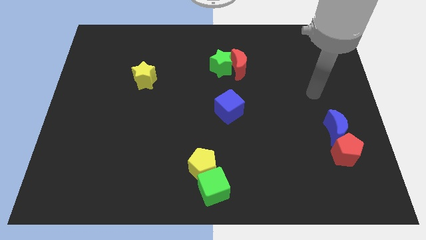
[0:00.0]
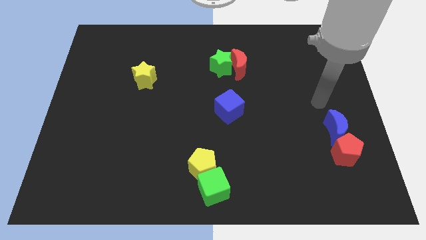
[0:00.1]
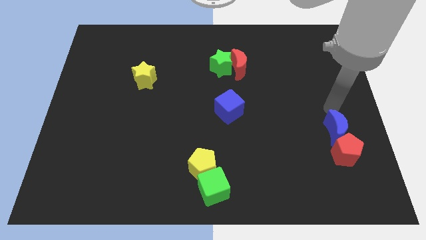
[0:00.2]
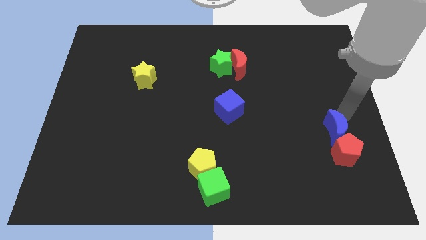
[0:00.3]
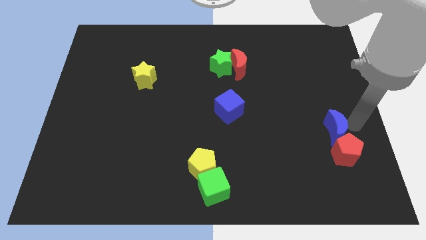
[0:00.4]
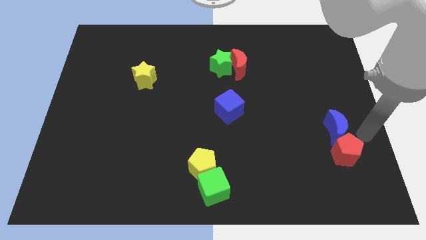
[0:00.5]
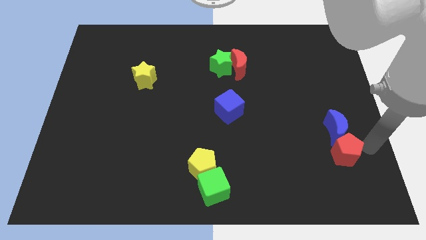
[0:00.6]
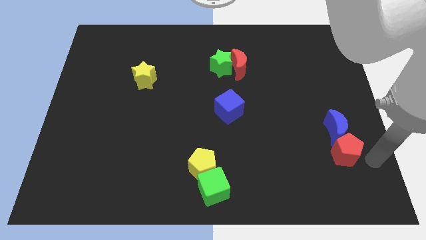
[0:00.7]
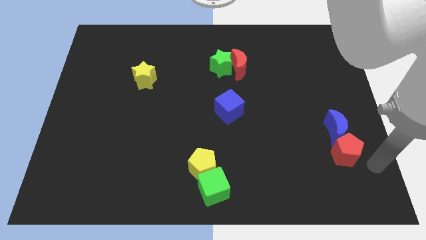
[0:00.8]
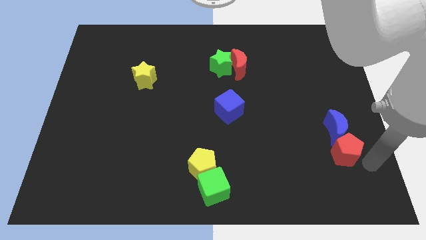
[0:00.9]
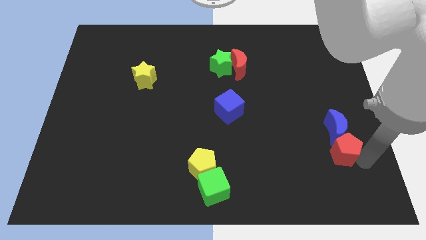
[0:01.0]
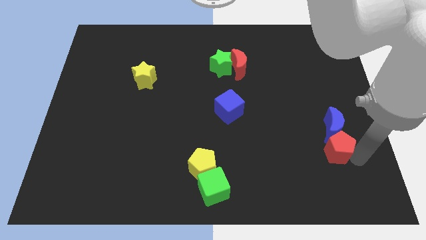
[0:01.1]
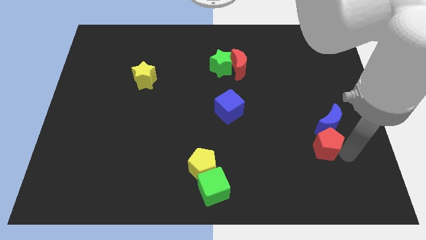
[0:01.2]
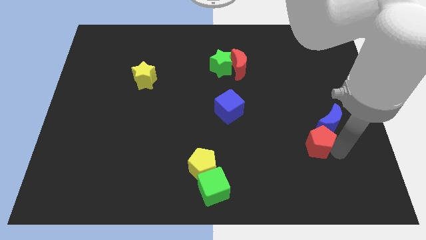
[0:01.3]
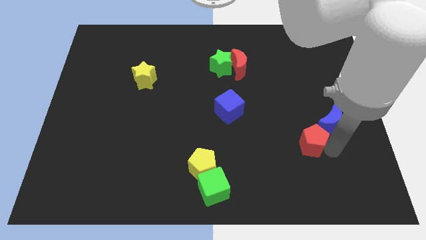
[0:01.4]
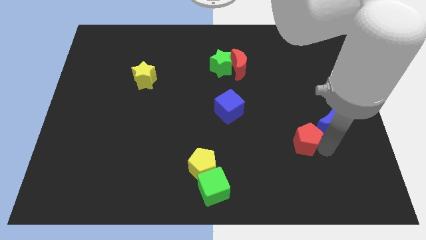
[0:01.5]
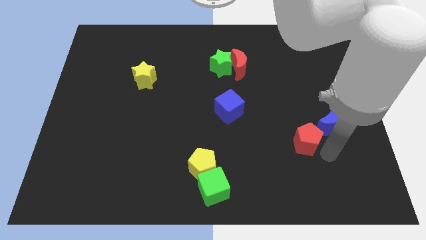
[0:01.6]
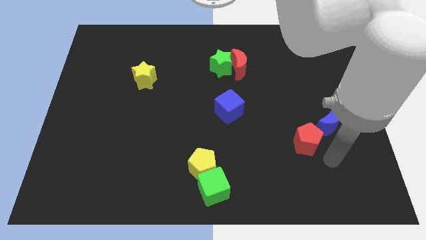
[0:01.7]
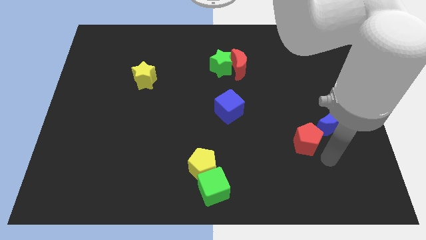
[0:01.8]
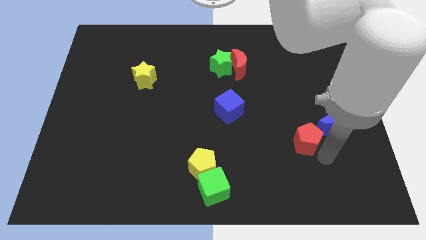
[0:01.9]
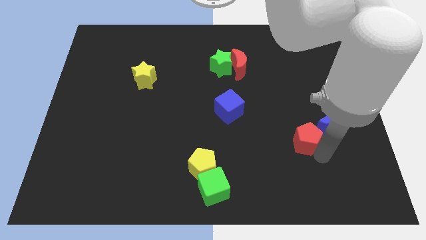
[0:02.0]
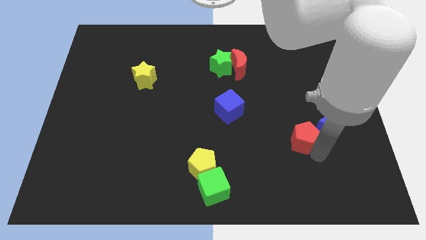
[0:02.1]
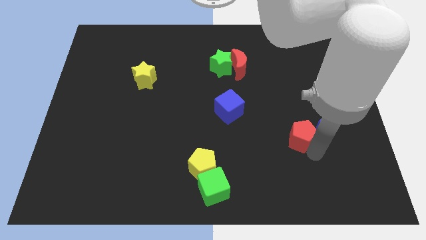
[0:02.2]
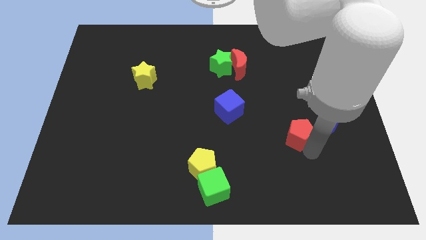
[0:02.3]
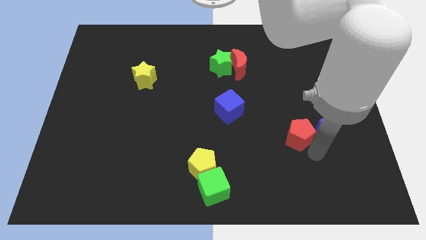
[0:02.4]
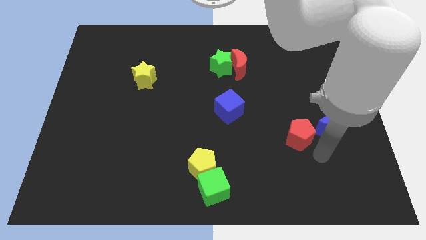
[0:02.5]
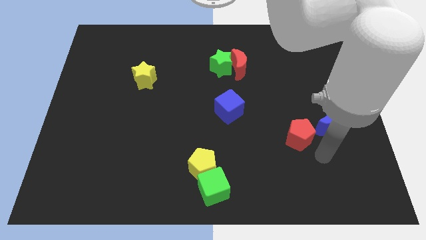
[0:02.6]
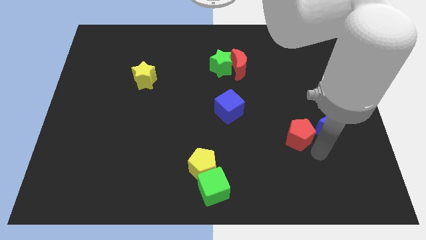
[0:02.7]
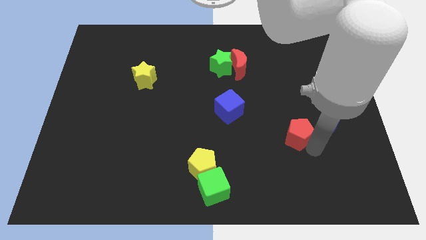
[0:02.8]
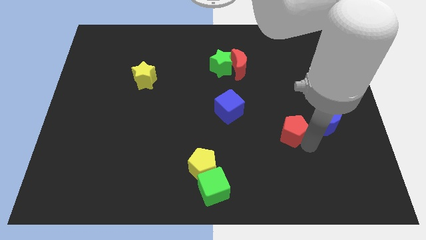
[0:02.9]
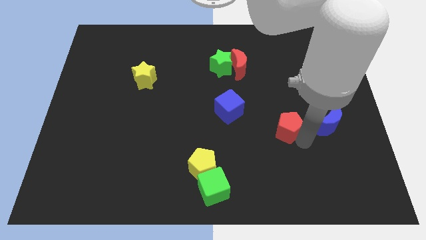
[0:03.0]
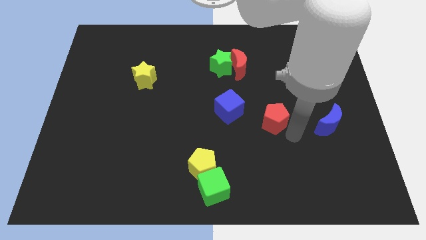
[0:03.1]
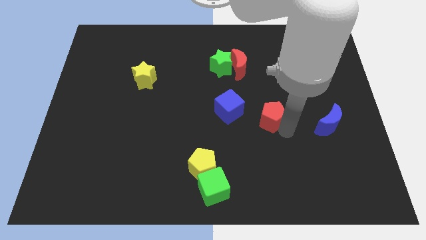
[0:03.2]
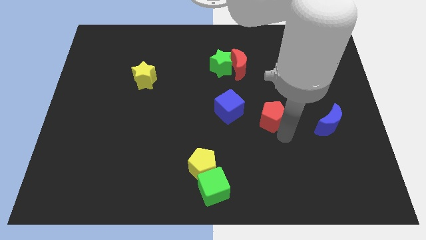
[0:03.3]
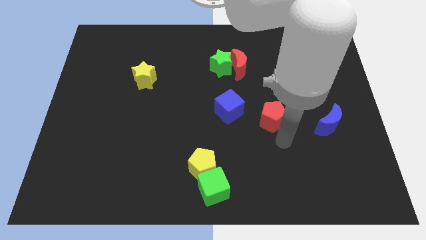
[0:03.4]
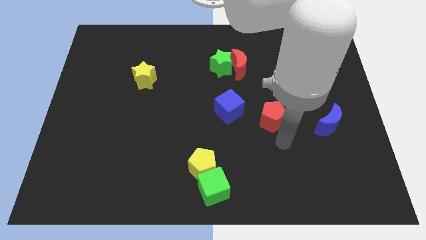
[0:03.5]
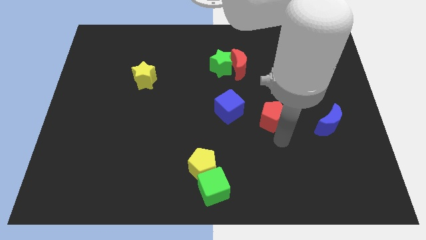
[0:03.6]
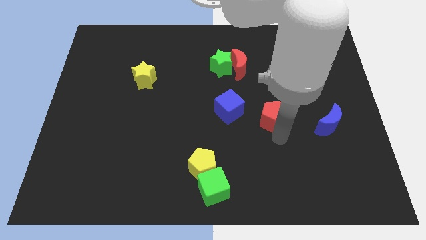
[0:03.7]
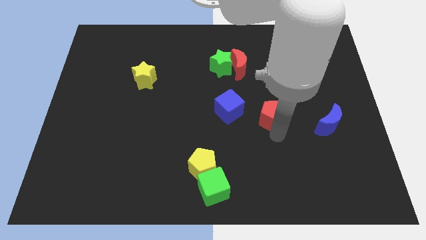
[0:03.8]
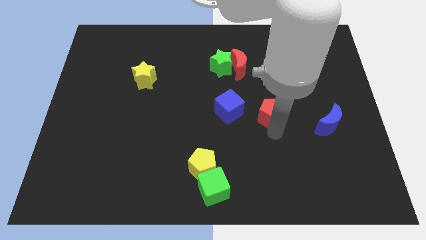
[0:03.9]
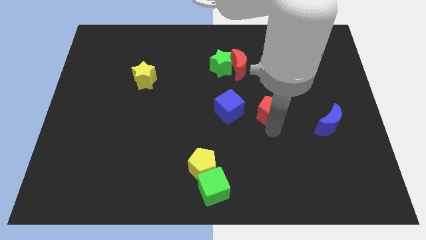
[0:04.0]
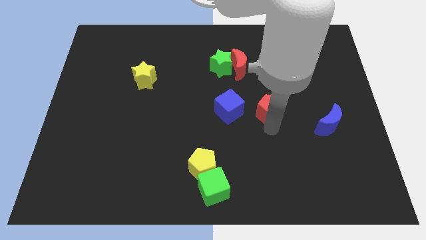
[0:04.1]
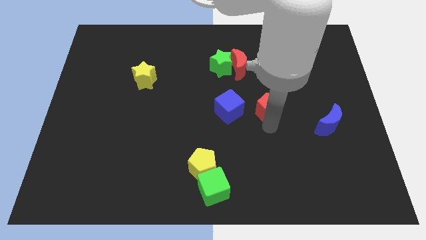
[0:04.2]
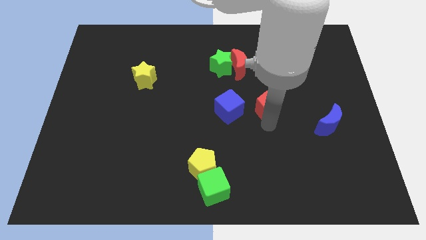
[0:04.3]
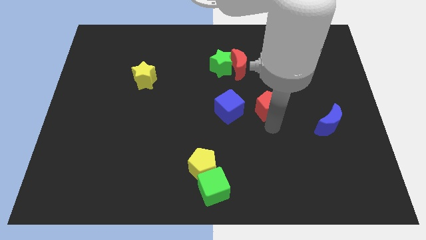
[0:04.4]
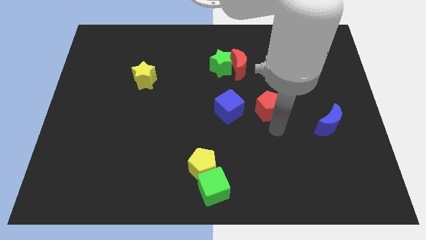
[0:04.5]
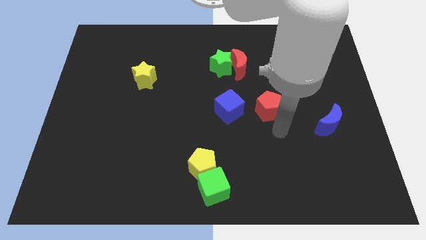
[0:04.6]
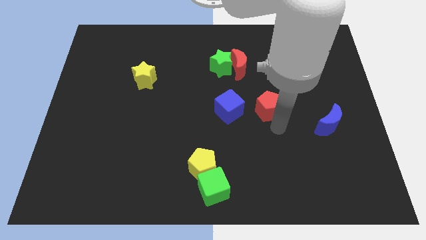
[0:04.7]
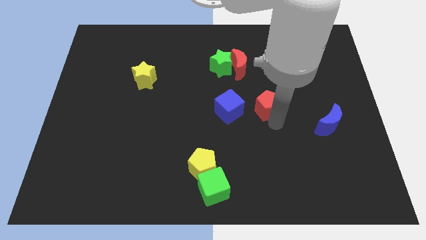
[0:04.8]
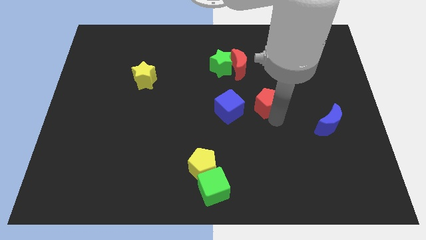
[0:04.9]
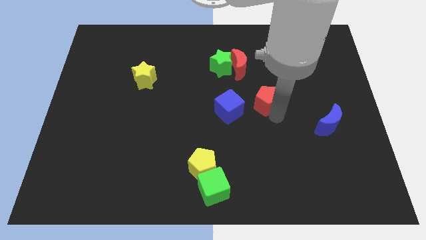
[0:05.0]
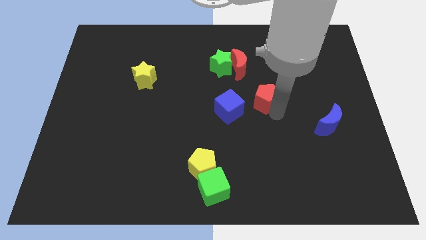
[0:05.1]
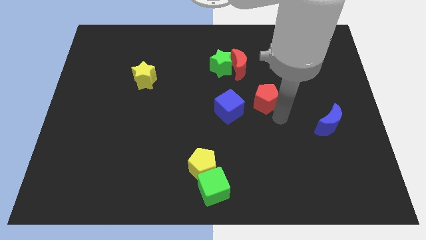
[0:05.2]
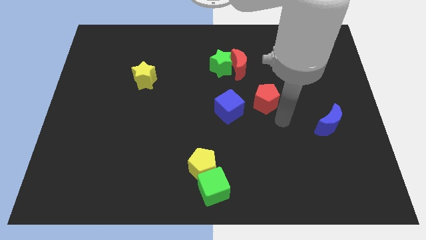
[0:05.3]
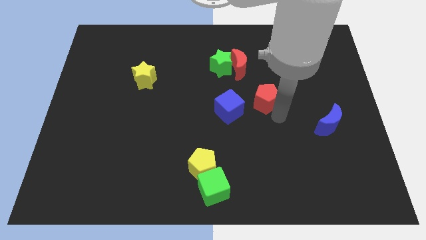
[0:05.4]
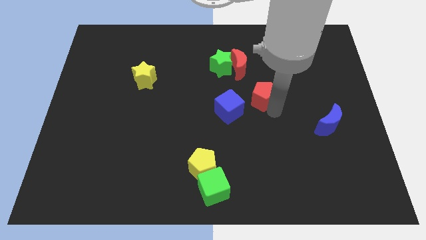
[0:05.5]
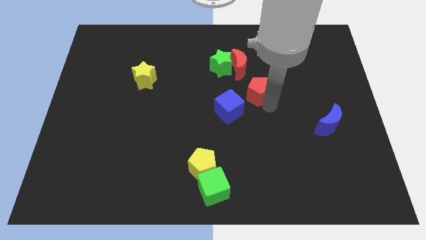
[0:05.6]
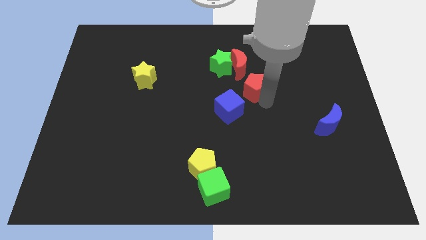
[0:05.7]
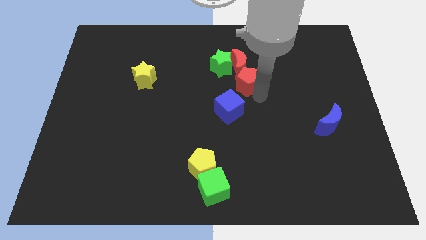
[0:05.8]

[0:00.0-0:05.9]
move the red pentagon close to the red moon

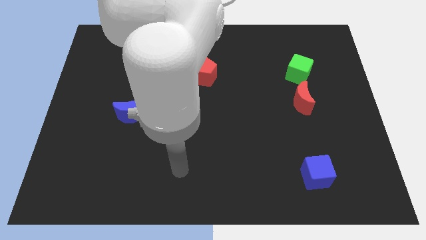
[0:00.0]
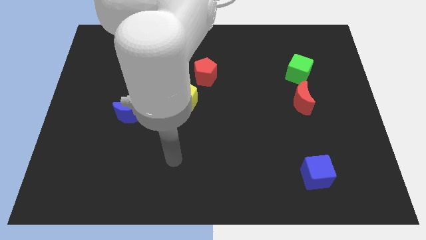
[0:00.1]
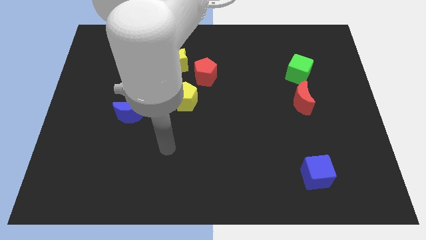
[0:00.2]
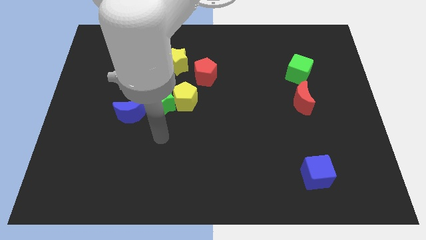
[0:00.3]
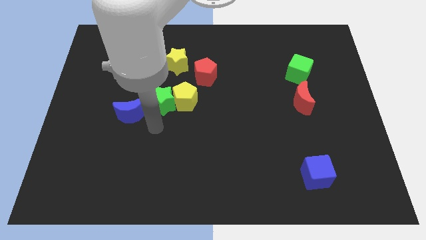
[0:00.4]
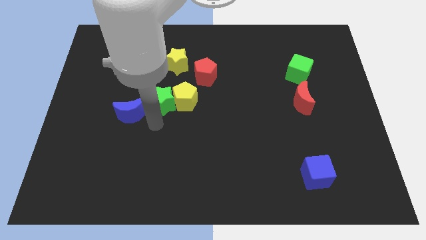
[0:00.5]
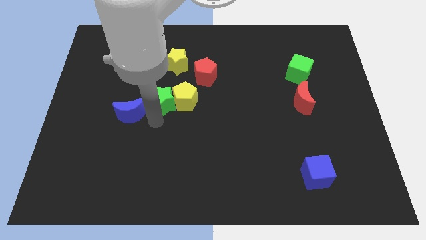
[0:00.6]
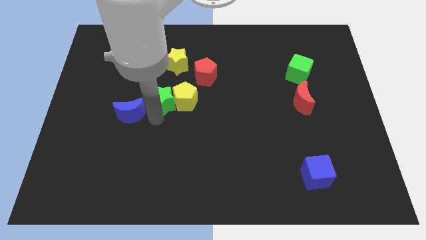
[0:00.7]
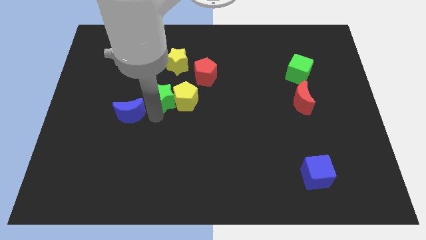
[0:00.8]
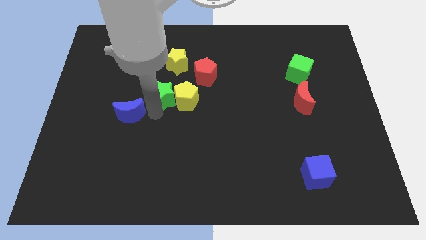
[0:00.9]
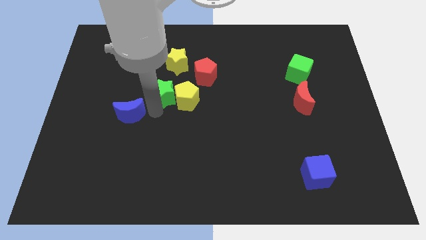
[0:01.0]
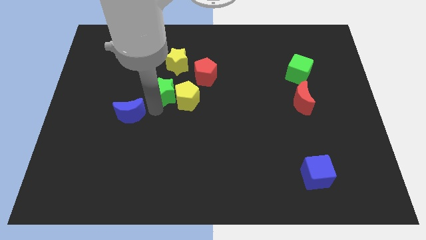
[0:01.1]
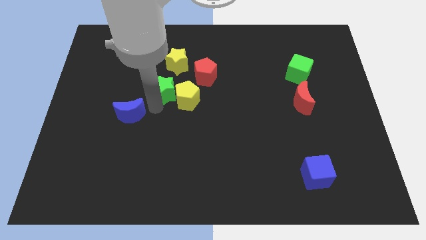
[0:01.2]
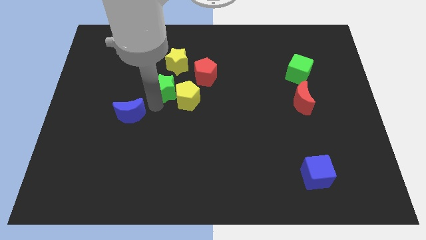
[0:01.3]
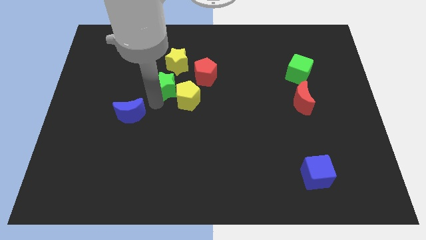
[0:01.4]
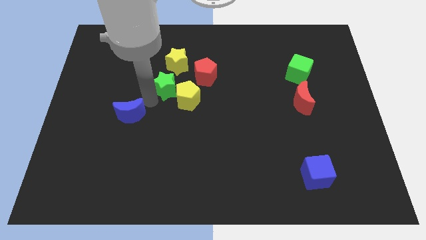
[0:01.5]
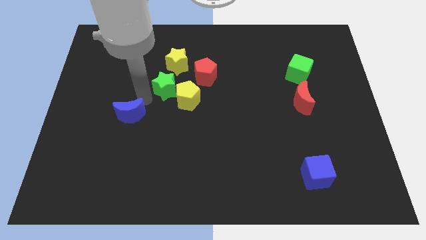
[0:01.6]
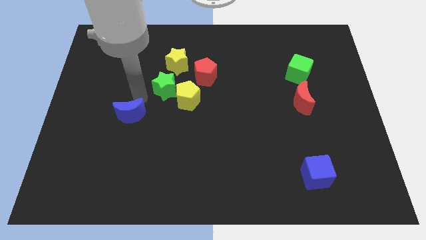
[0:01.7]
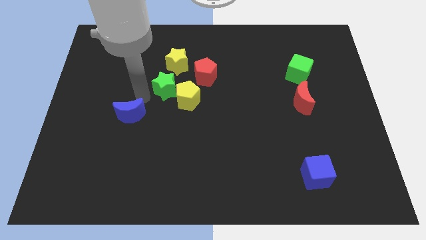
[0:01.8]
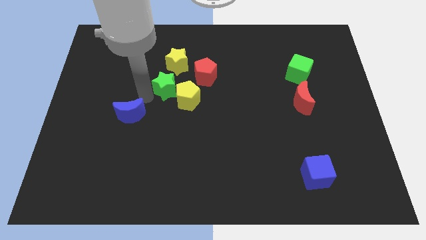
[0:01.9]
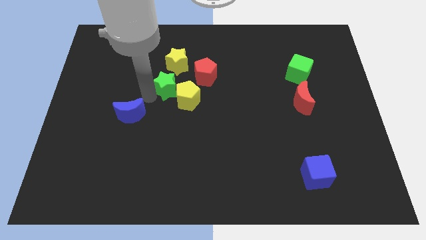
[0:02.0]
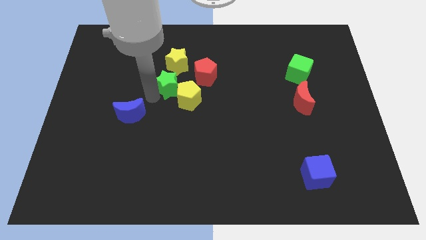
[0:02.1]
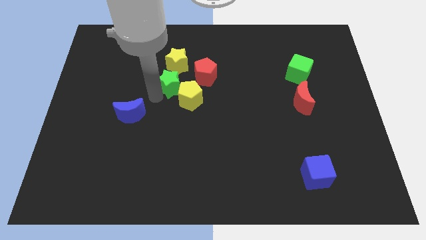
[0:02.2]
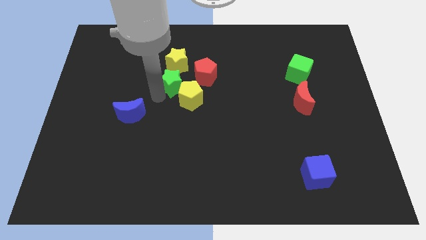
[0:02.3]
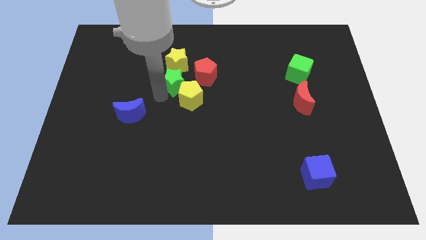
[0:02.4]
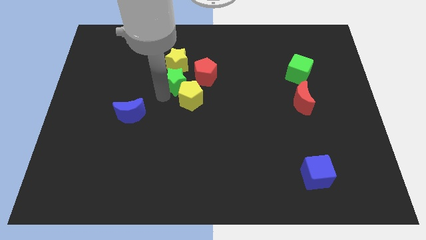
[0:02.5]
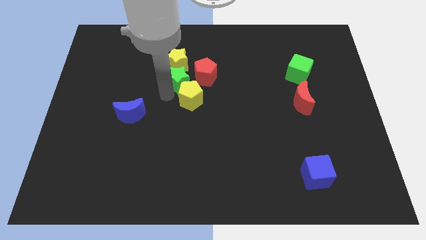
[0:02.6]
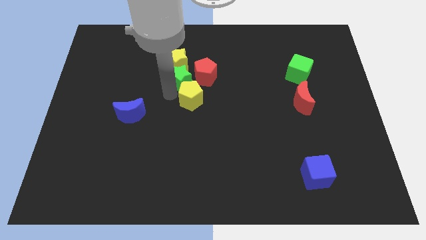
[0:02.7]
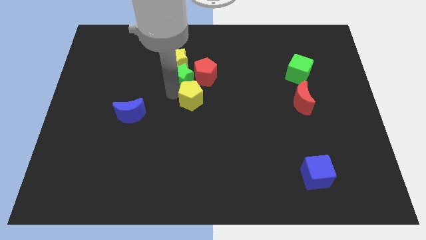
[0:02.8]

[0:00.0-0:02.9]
put the green star towards the red pentagon
